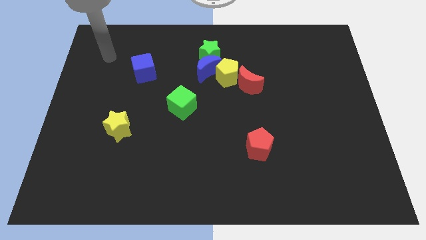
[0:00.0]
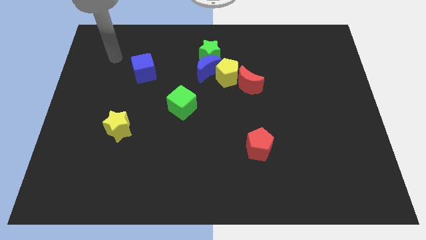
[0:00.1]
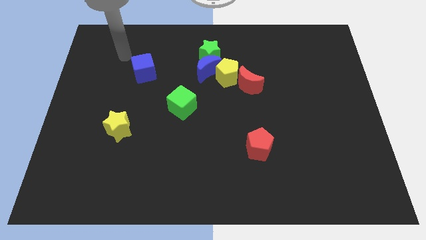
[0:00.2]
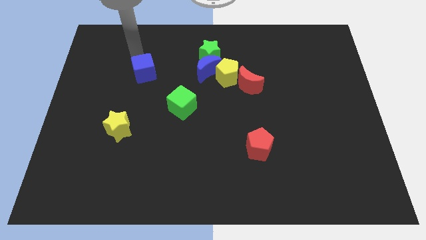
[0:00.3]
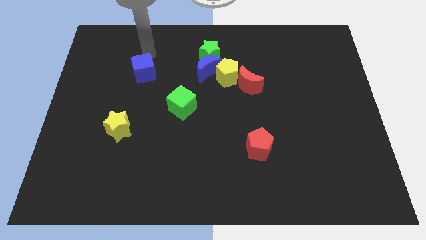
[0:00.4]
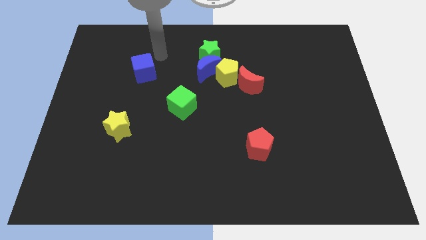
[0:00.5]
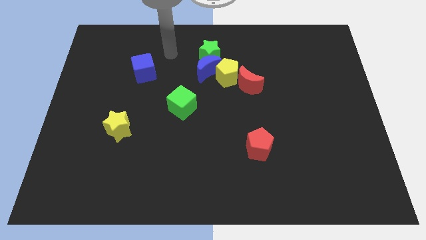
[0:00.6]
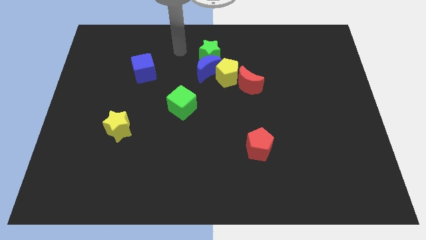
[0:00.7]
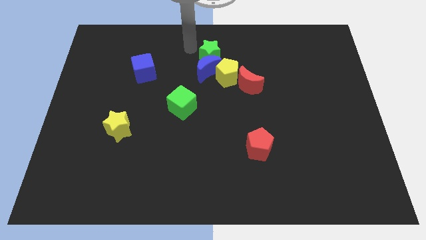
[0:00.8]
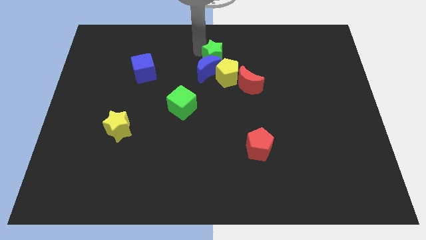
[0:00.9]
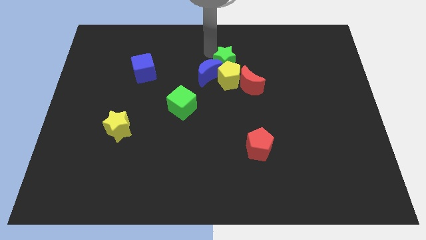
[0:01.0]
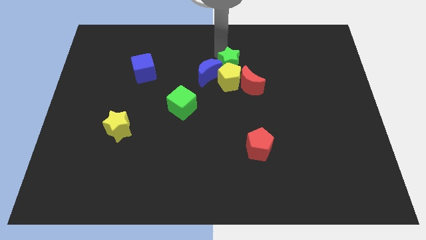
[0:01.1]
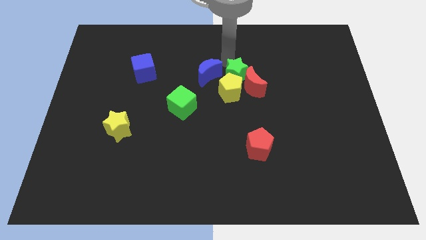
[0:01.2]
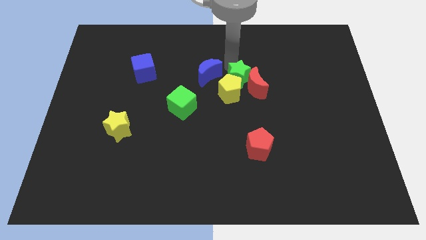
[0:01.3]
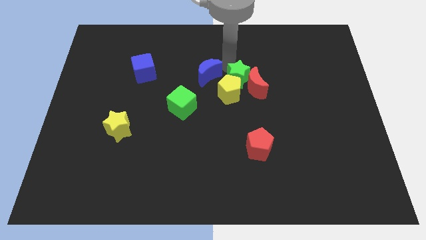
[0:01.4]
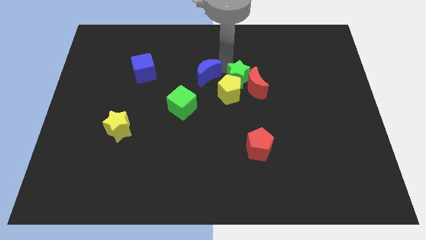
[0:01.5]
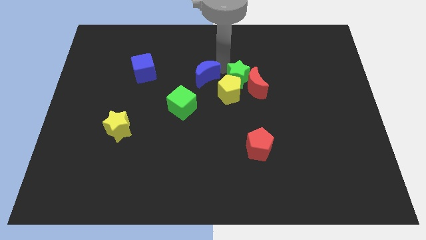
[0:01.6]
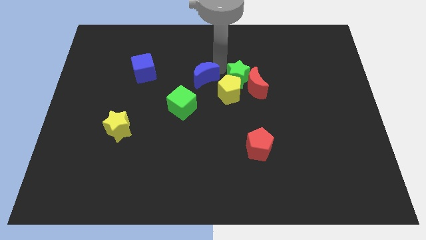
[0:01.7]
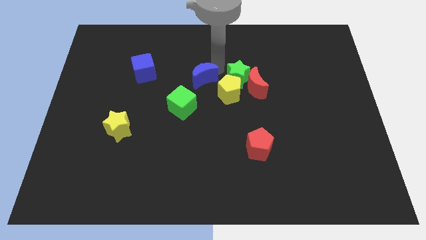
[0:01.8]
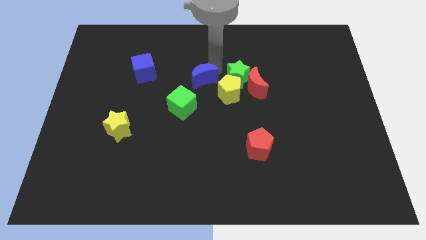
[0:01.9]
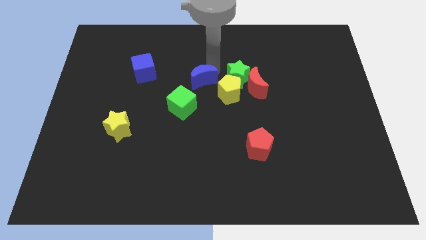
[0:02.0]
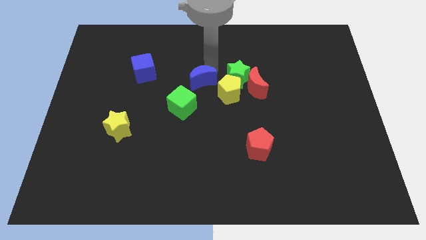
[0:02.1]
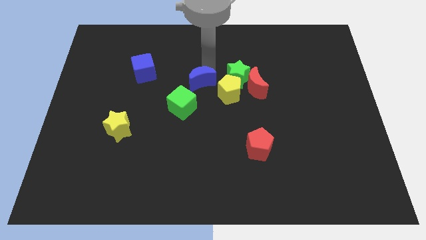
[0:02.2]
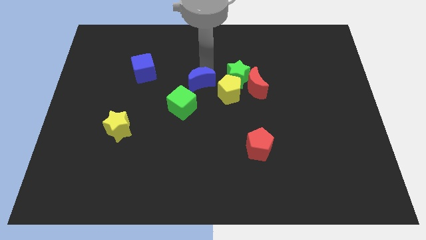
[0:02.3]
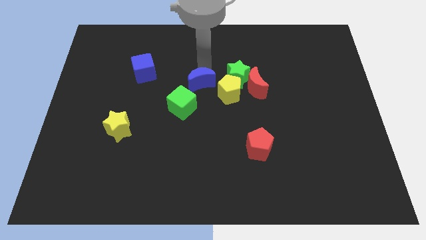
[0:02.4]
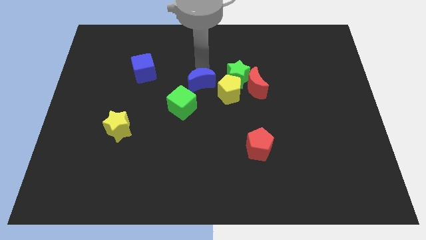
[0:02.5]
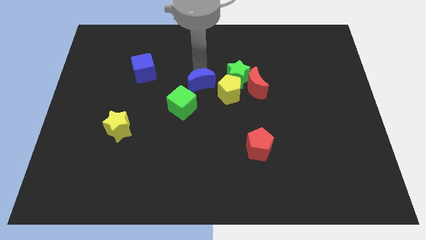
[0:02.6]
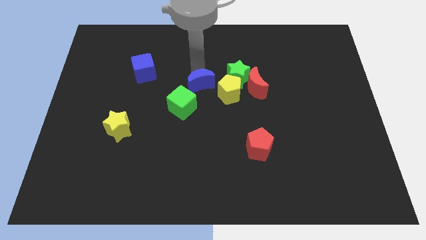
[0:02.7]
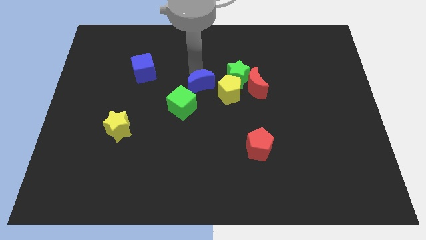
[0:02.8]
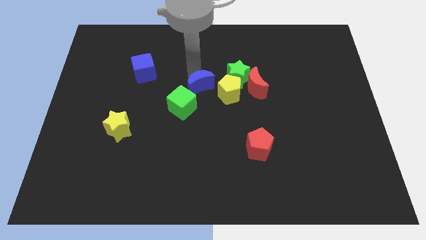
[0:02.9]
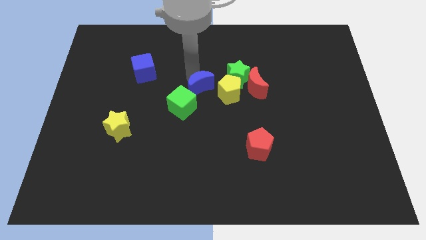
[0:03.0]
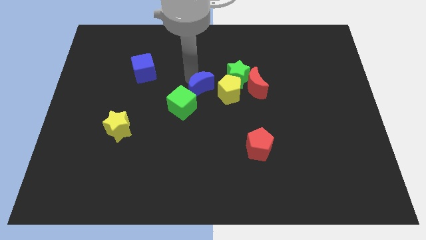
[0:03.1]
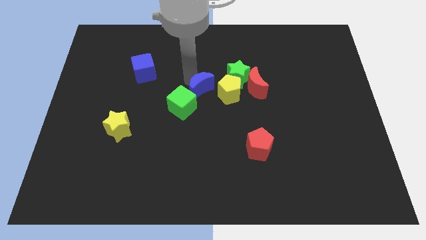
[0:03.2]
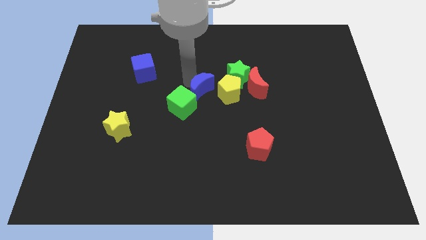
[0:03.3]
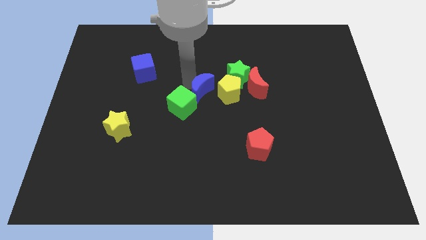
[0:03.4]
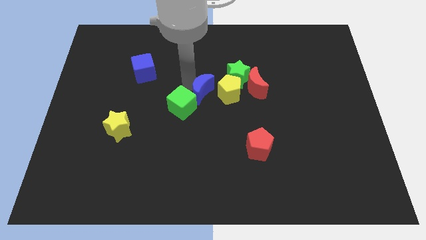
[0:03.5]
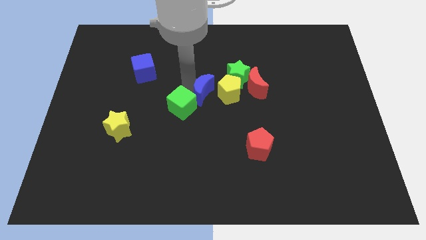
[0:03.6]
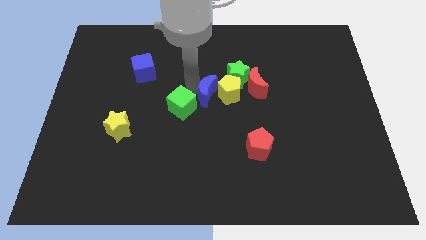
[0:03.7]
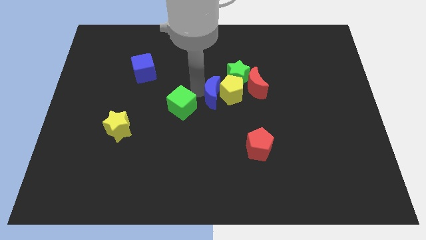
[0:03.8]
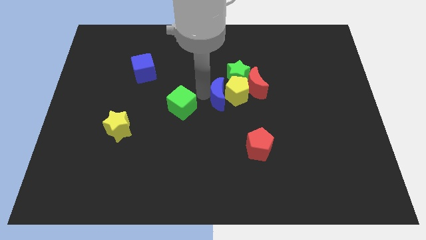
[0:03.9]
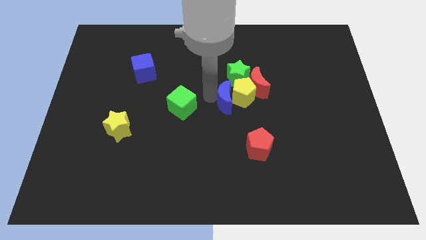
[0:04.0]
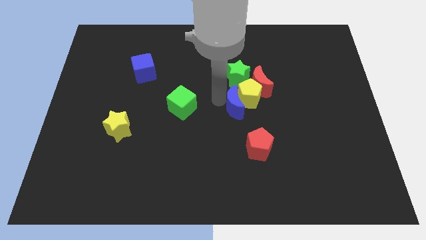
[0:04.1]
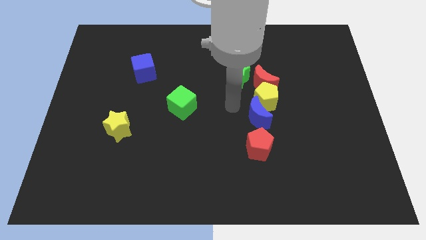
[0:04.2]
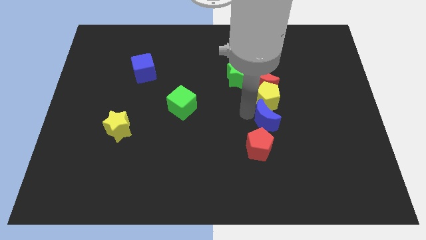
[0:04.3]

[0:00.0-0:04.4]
separate the blue moon from the green star and yellow pentagon

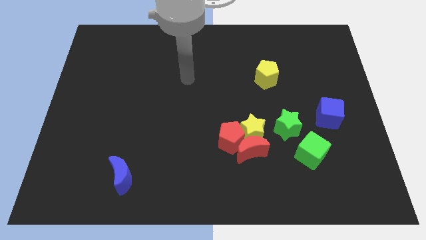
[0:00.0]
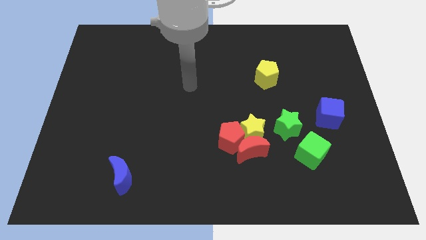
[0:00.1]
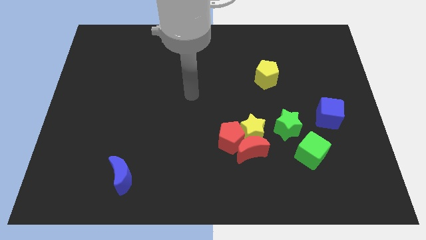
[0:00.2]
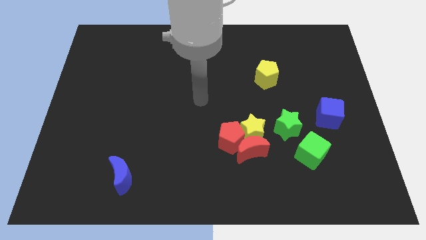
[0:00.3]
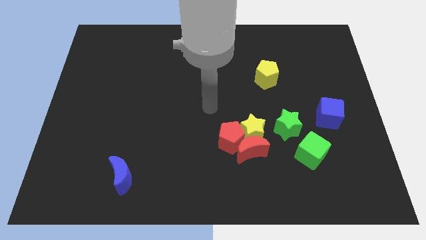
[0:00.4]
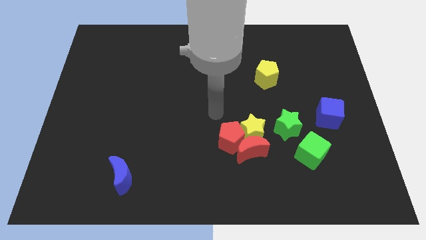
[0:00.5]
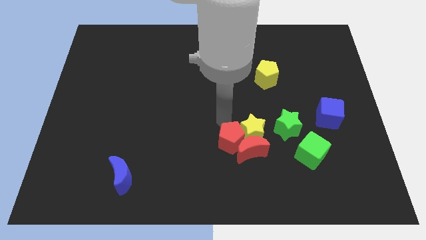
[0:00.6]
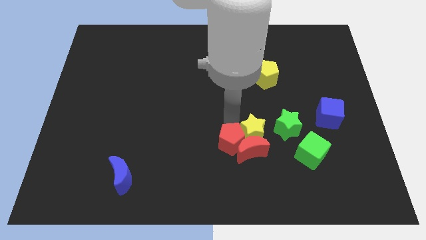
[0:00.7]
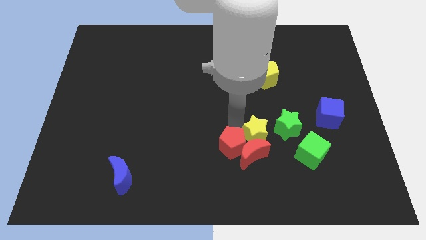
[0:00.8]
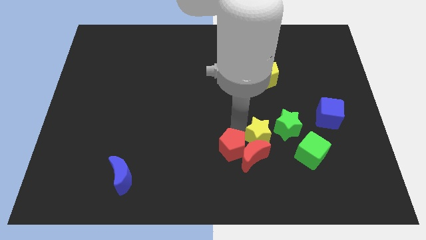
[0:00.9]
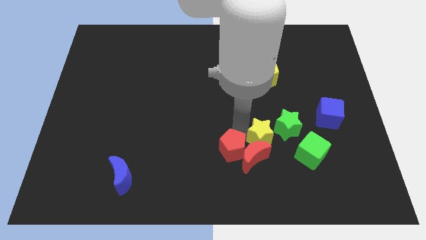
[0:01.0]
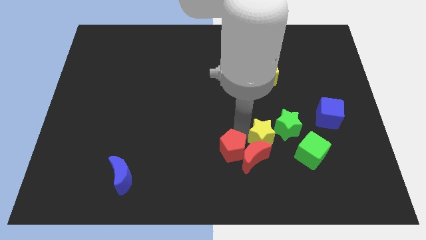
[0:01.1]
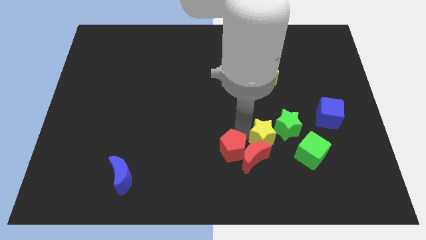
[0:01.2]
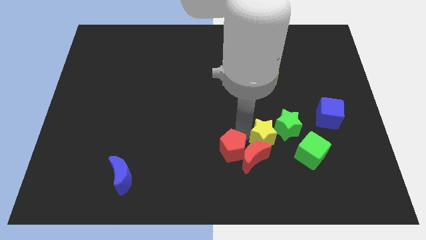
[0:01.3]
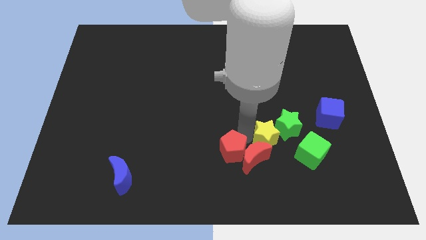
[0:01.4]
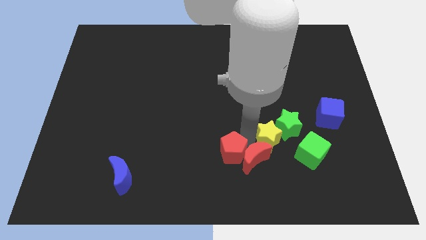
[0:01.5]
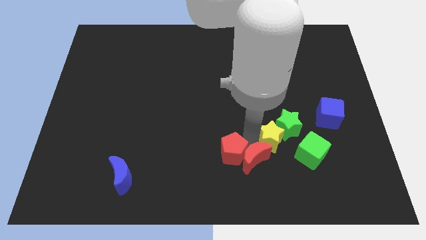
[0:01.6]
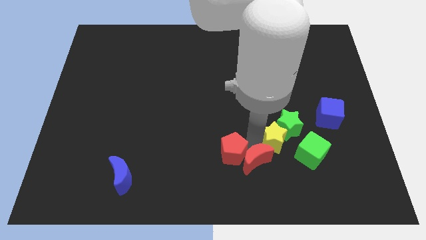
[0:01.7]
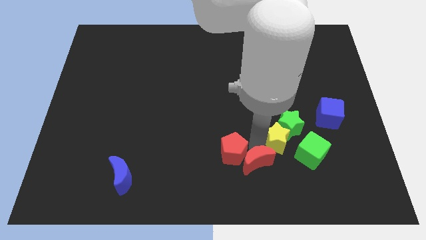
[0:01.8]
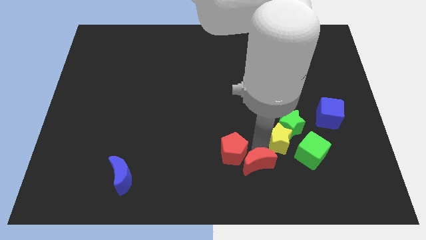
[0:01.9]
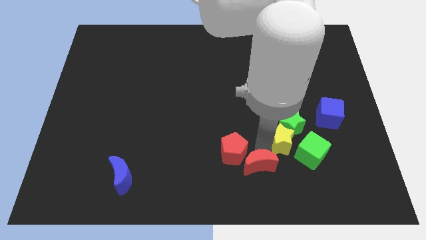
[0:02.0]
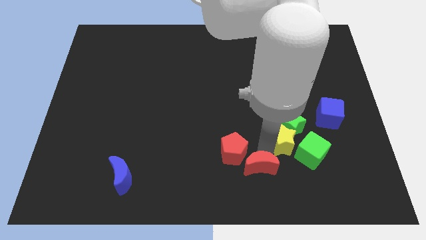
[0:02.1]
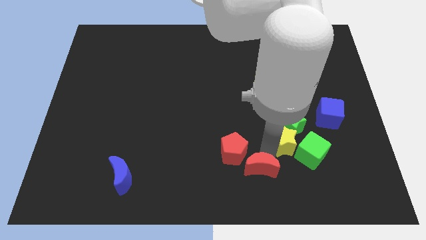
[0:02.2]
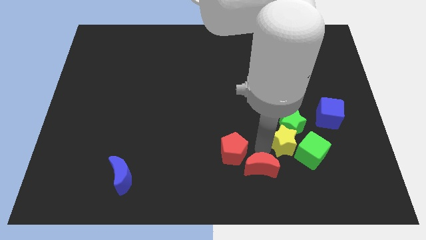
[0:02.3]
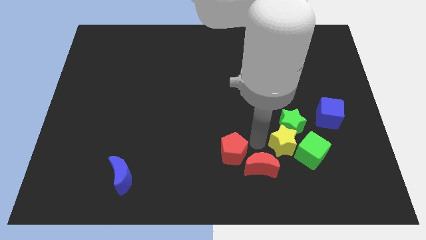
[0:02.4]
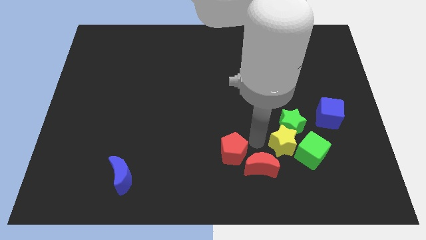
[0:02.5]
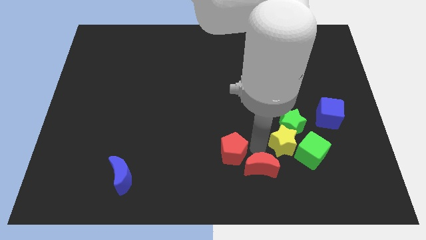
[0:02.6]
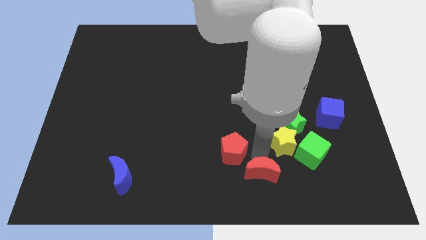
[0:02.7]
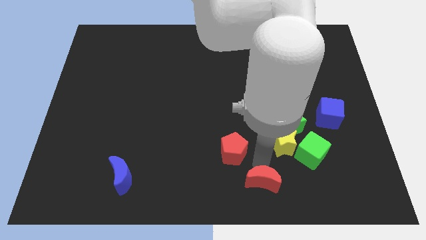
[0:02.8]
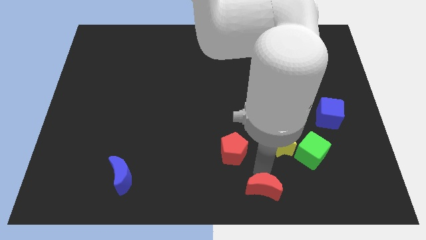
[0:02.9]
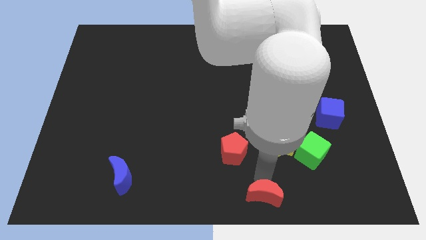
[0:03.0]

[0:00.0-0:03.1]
pull the red moon apart from the yellow star and red pentagon

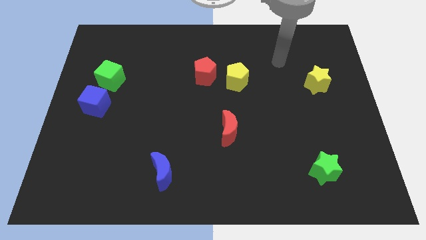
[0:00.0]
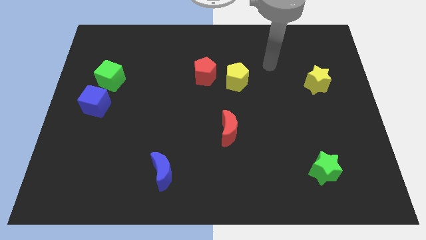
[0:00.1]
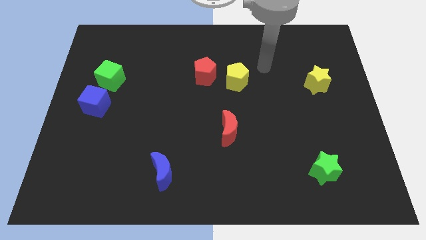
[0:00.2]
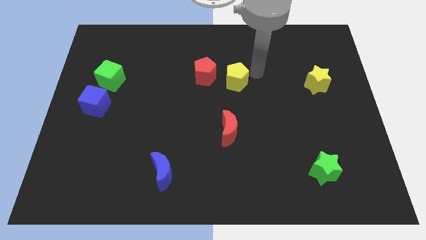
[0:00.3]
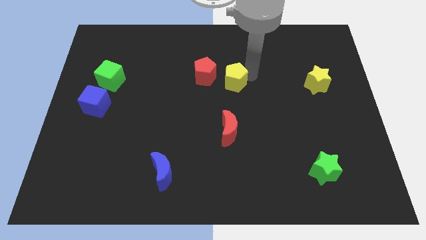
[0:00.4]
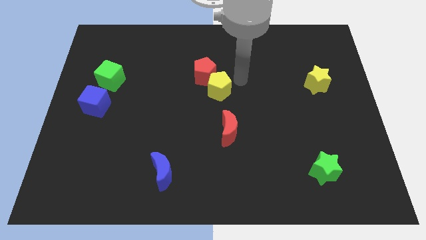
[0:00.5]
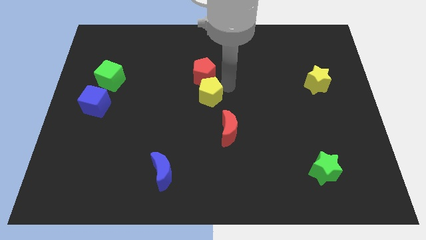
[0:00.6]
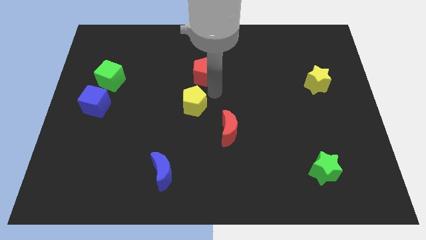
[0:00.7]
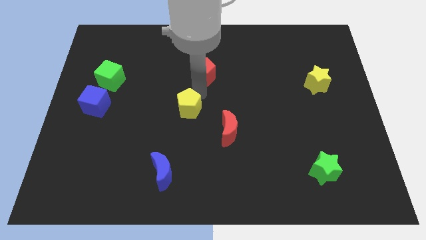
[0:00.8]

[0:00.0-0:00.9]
move the red pentagon away from the yellow pentagon

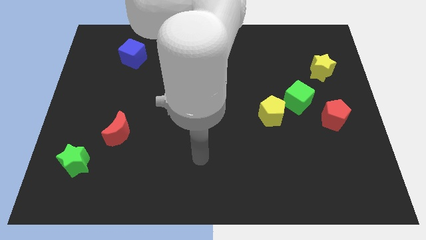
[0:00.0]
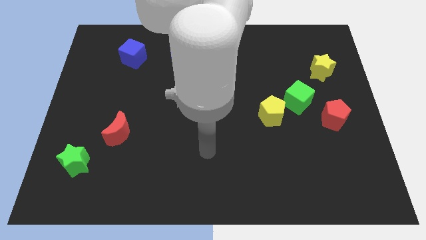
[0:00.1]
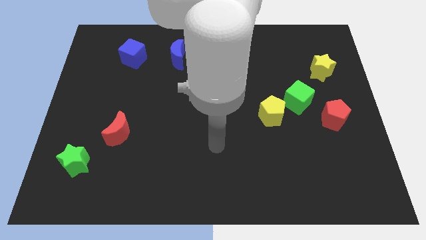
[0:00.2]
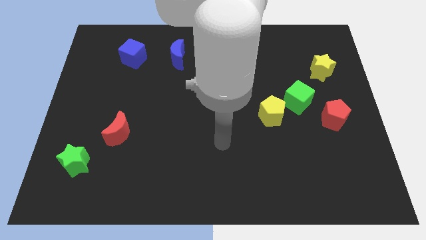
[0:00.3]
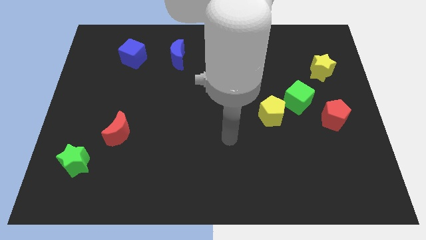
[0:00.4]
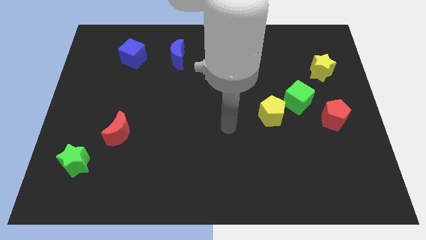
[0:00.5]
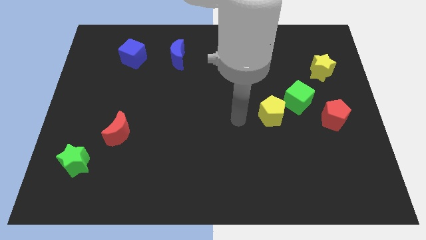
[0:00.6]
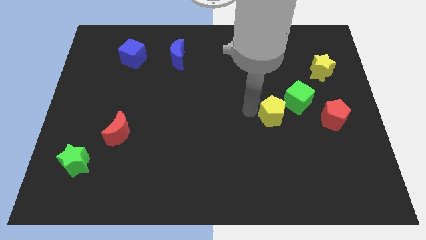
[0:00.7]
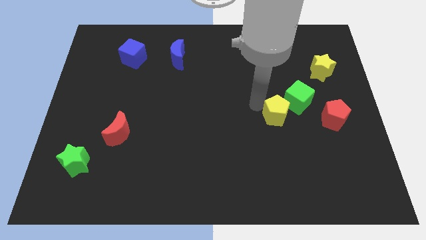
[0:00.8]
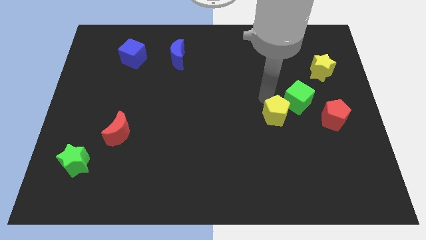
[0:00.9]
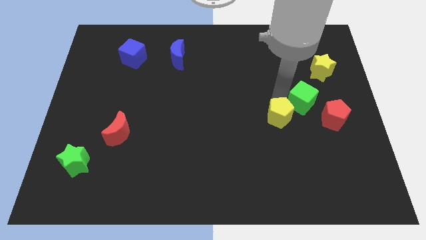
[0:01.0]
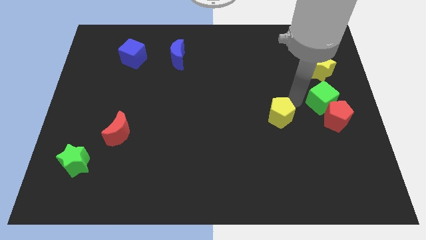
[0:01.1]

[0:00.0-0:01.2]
separate the yellow pentagon from the green cube
